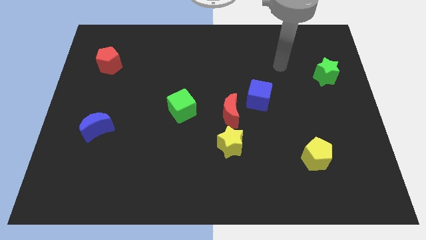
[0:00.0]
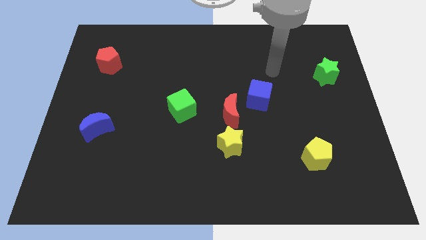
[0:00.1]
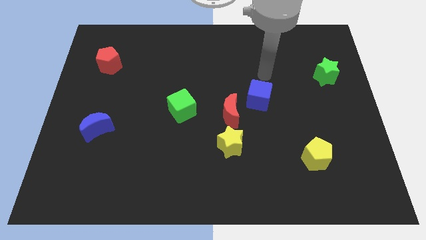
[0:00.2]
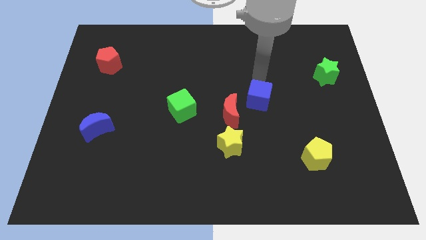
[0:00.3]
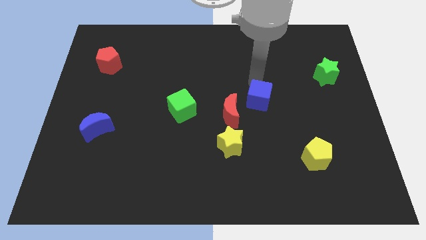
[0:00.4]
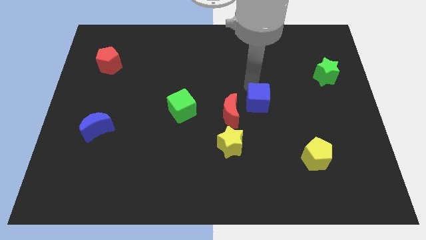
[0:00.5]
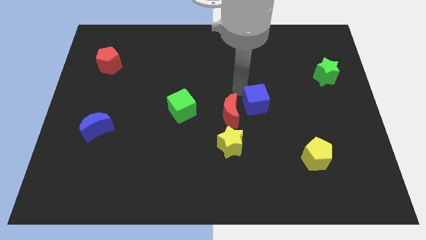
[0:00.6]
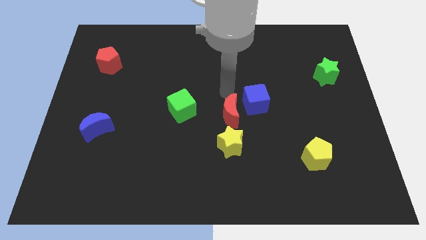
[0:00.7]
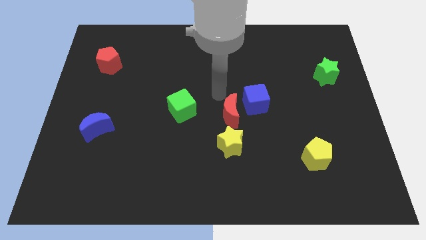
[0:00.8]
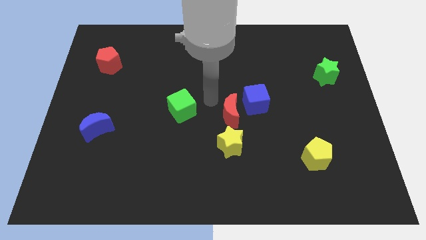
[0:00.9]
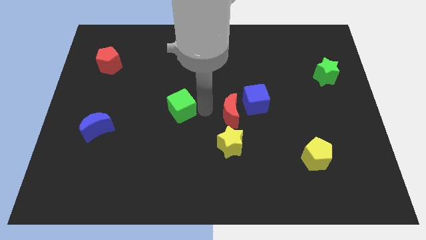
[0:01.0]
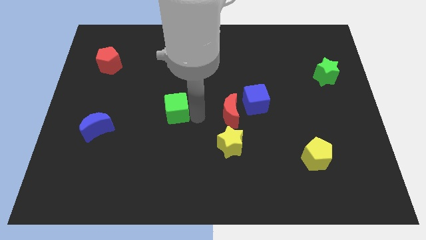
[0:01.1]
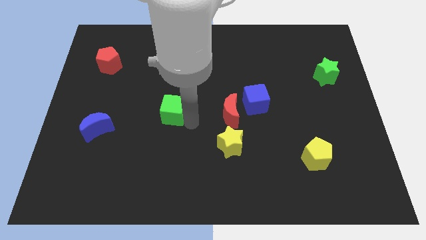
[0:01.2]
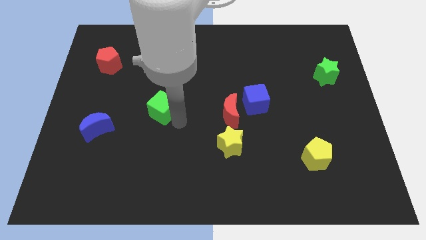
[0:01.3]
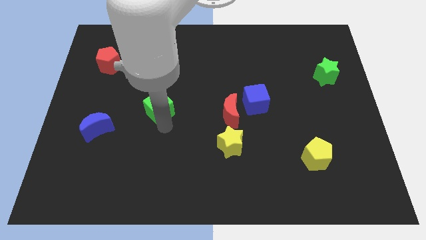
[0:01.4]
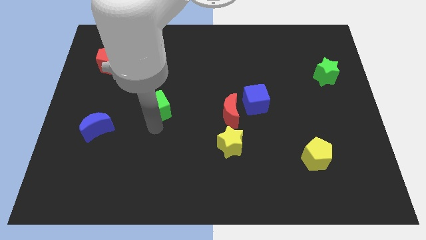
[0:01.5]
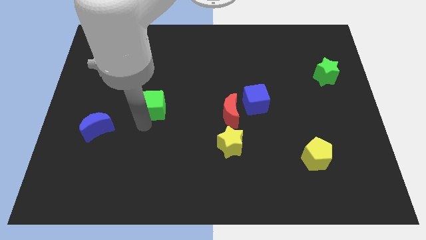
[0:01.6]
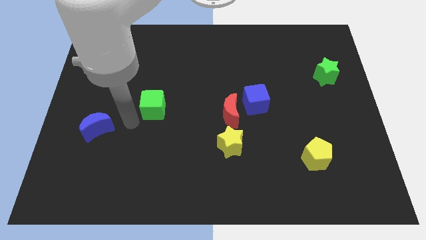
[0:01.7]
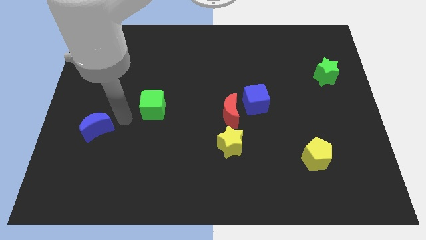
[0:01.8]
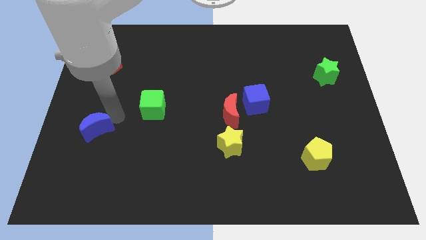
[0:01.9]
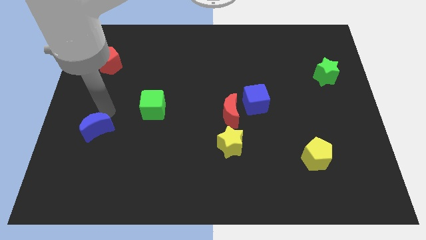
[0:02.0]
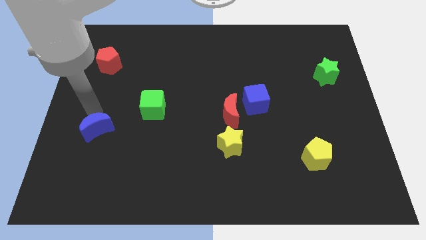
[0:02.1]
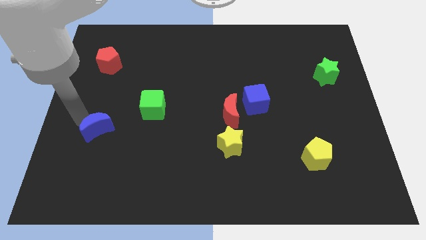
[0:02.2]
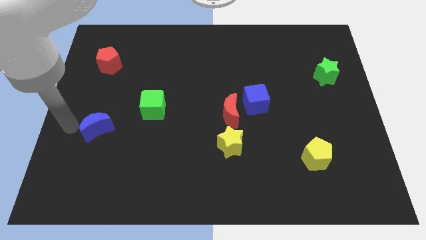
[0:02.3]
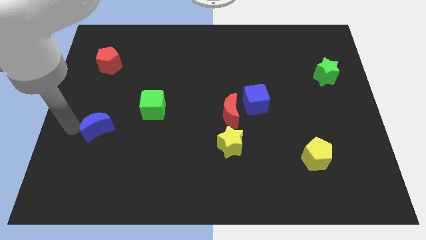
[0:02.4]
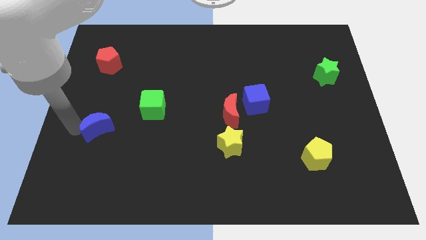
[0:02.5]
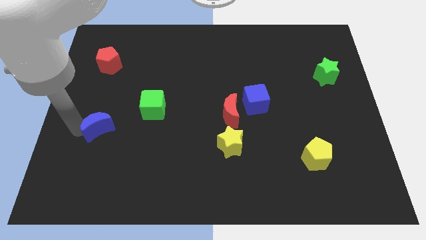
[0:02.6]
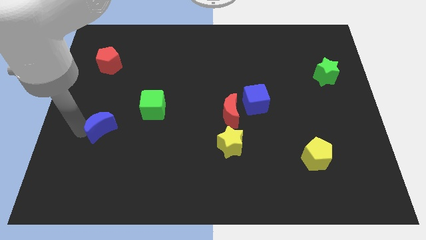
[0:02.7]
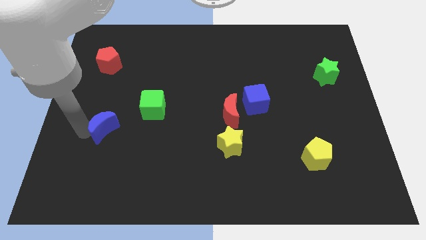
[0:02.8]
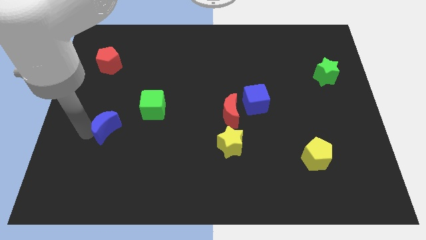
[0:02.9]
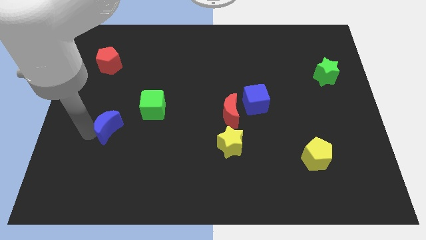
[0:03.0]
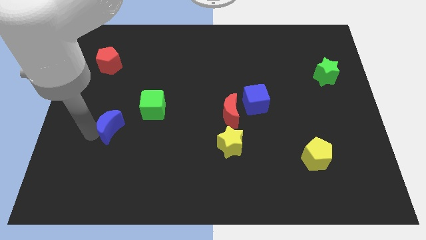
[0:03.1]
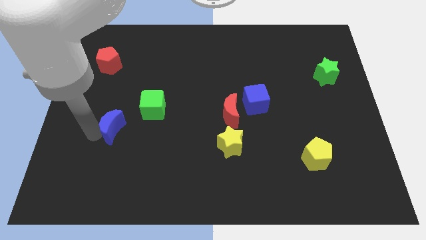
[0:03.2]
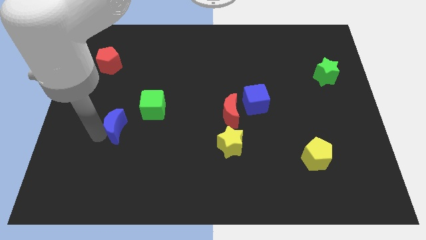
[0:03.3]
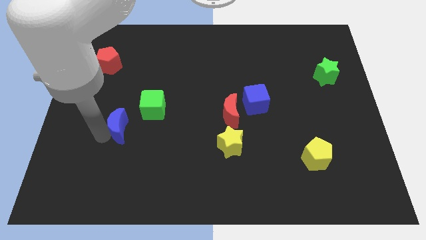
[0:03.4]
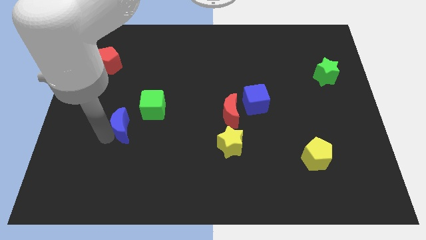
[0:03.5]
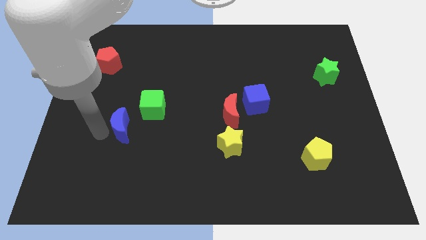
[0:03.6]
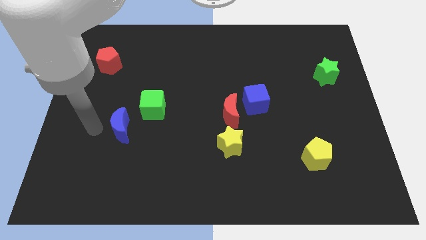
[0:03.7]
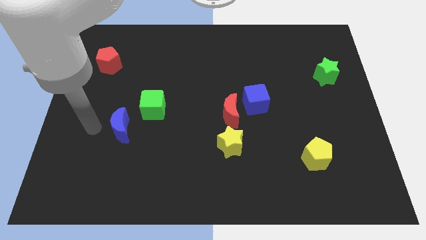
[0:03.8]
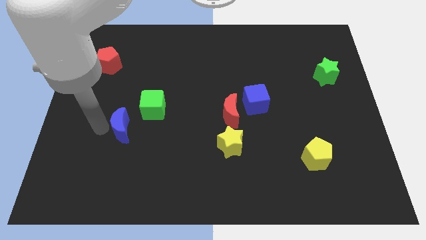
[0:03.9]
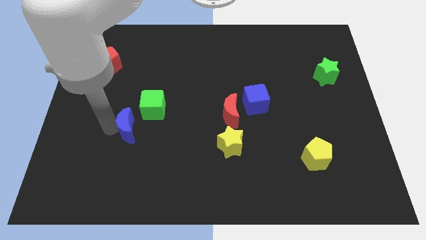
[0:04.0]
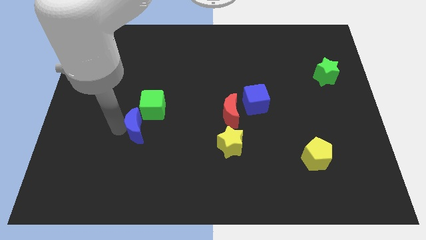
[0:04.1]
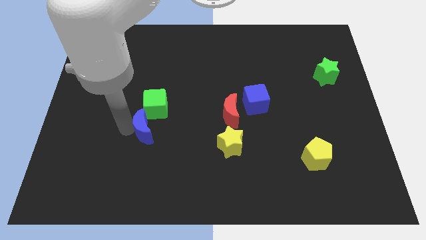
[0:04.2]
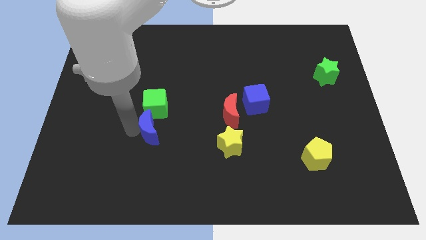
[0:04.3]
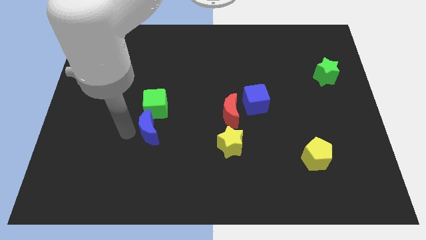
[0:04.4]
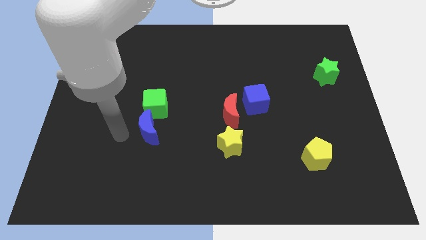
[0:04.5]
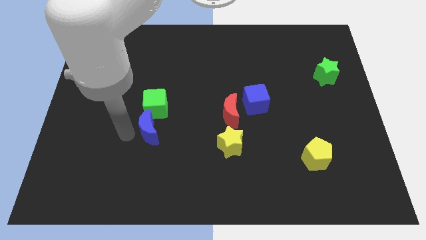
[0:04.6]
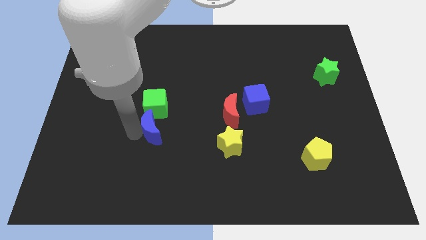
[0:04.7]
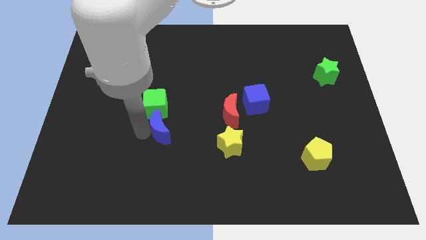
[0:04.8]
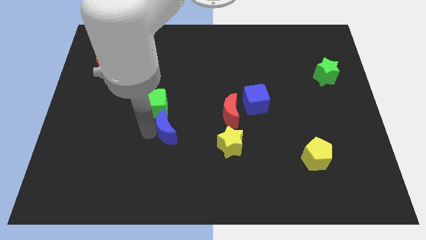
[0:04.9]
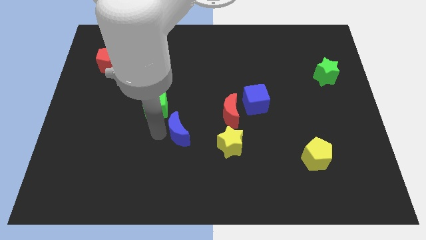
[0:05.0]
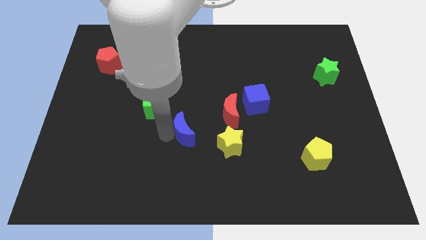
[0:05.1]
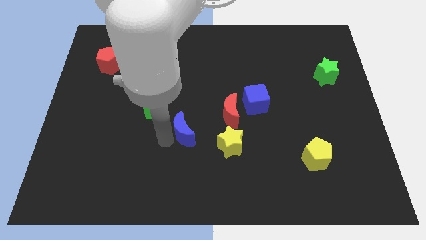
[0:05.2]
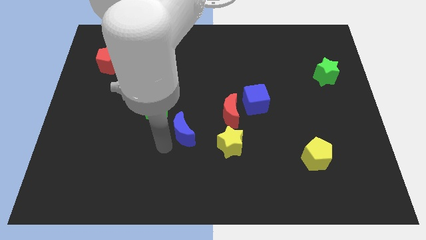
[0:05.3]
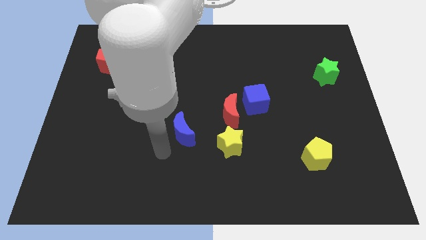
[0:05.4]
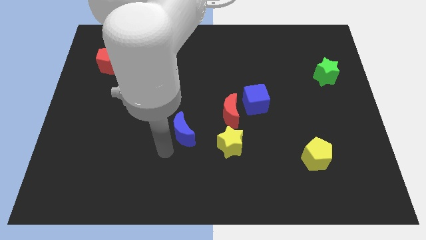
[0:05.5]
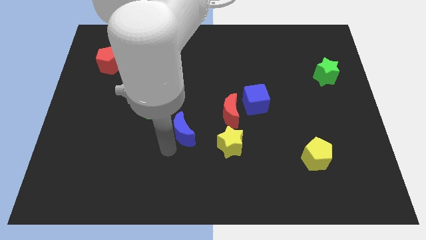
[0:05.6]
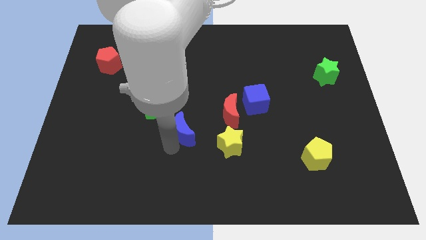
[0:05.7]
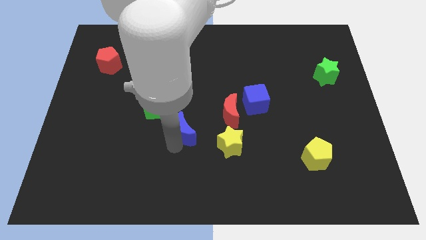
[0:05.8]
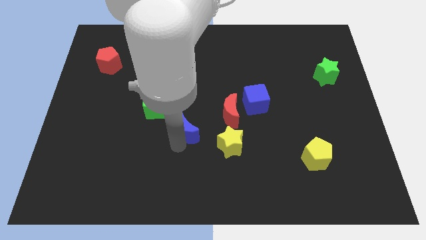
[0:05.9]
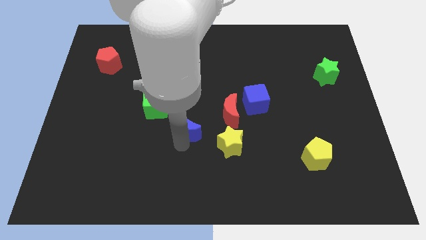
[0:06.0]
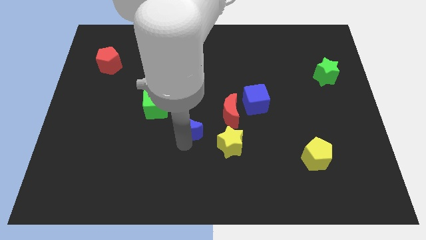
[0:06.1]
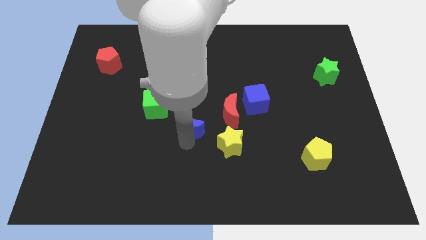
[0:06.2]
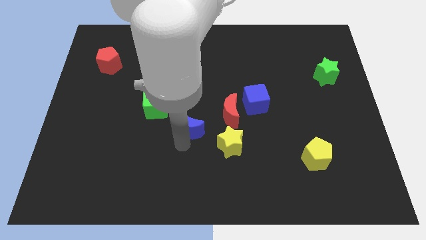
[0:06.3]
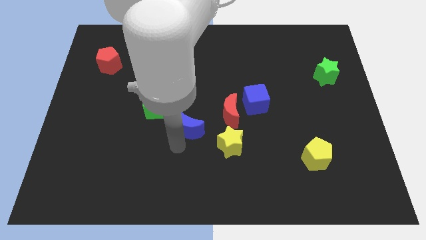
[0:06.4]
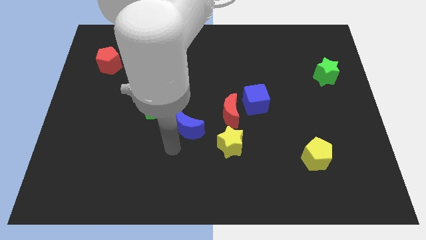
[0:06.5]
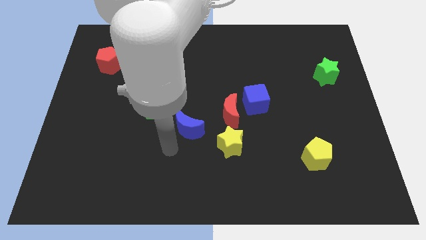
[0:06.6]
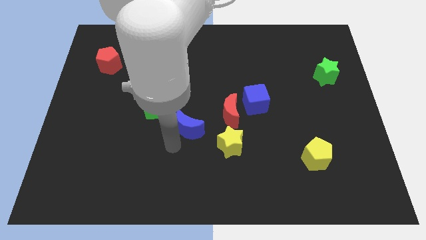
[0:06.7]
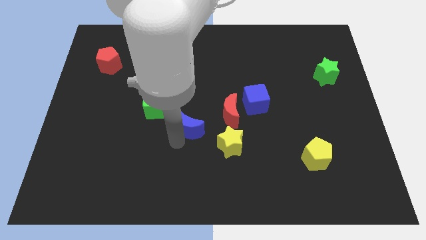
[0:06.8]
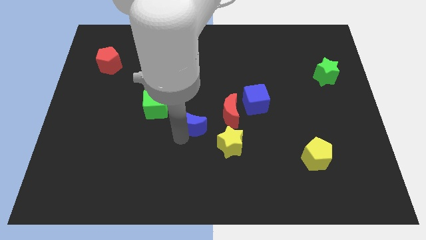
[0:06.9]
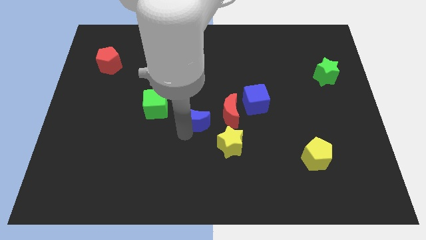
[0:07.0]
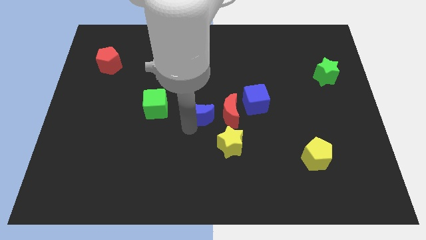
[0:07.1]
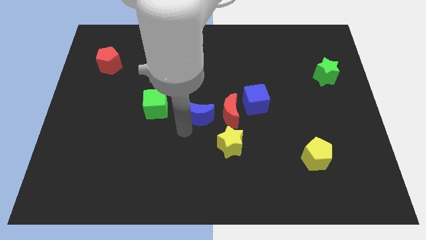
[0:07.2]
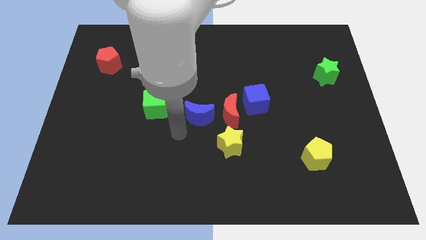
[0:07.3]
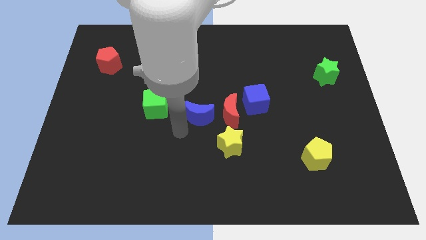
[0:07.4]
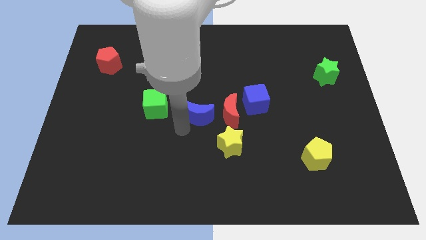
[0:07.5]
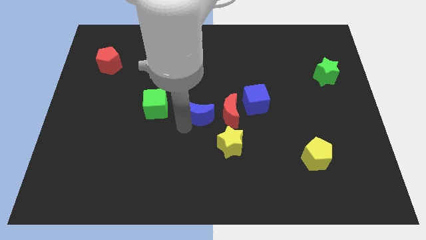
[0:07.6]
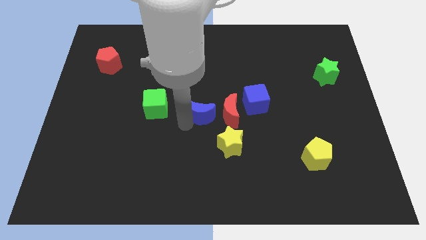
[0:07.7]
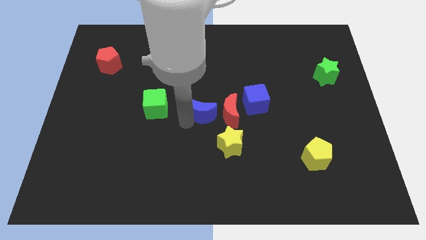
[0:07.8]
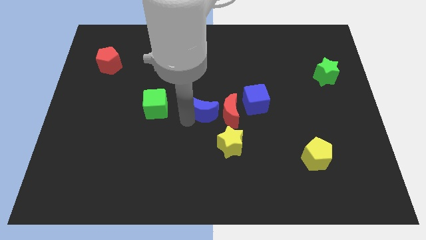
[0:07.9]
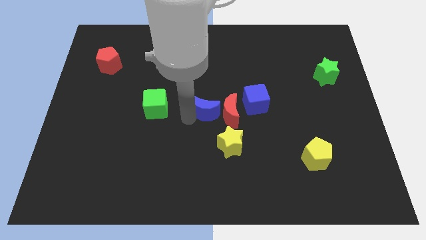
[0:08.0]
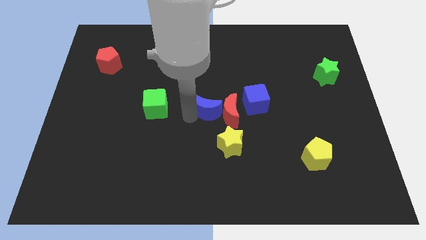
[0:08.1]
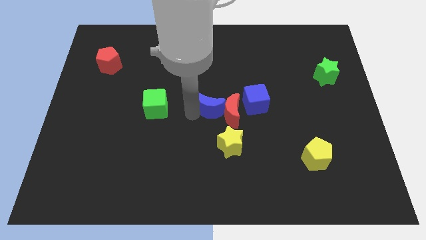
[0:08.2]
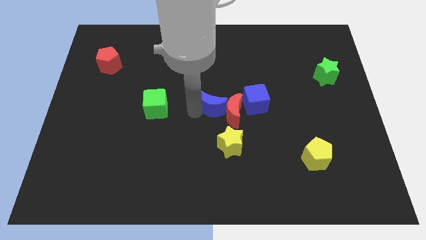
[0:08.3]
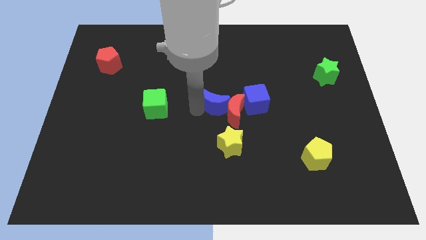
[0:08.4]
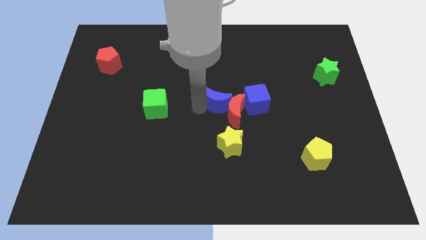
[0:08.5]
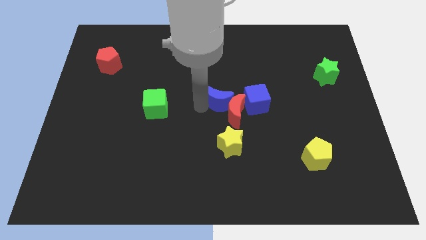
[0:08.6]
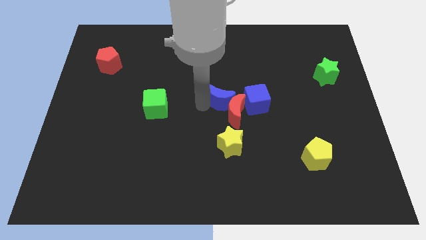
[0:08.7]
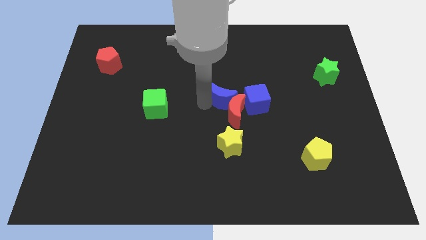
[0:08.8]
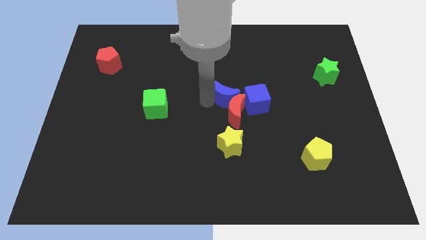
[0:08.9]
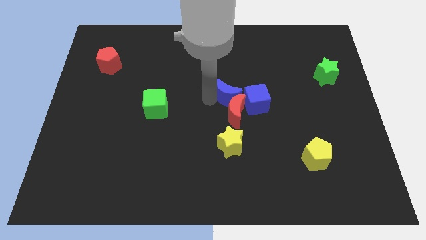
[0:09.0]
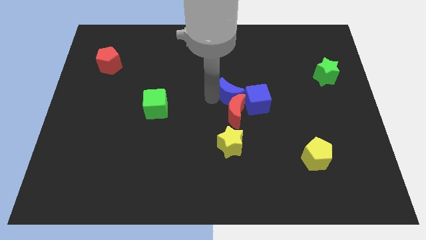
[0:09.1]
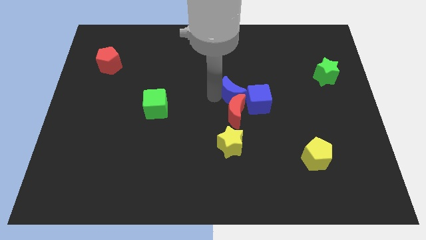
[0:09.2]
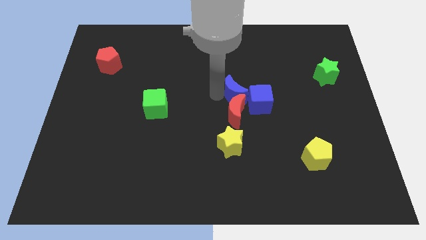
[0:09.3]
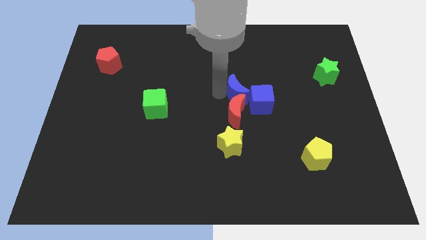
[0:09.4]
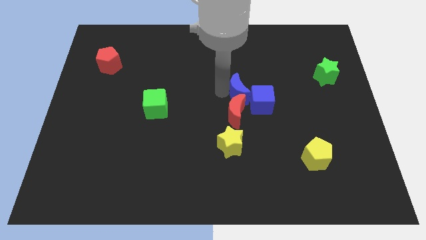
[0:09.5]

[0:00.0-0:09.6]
slide the blue moon to the blue cube
